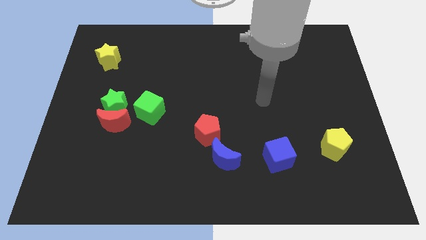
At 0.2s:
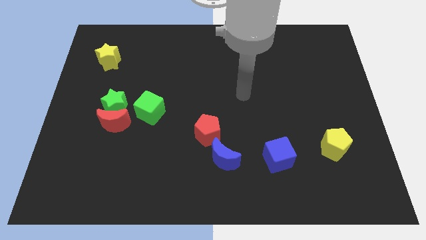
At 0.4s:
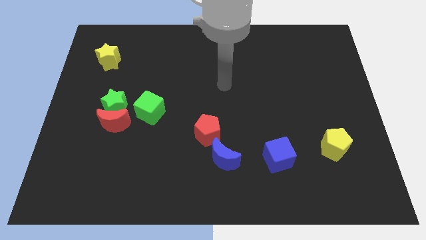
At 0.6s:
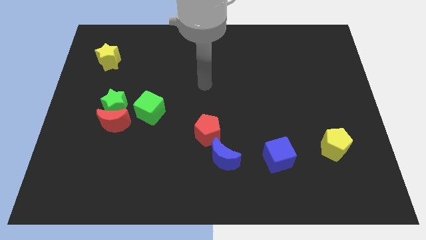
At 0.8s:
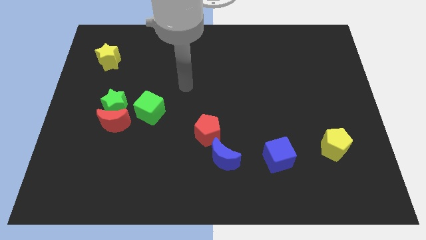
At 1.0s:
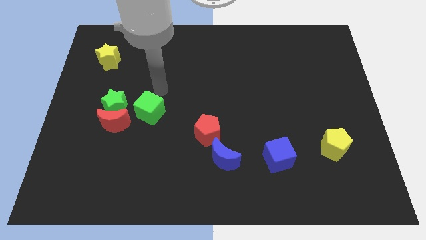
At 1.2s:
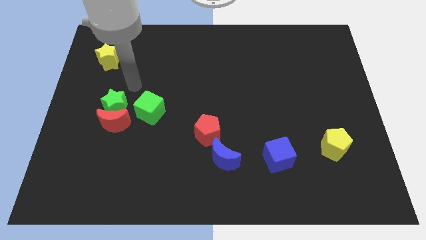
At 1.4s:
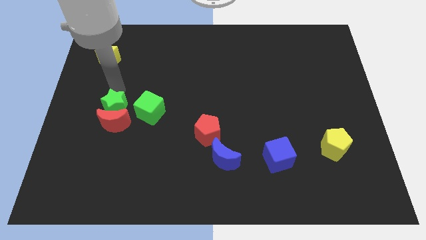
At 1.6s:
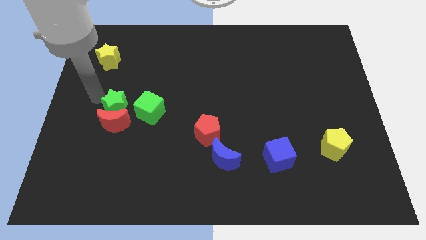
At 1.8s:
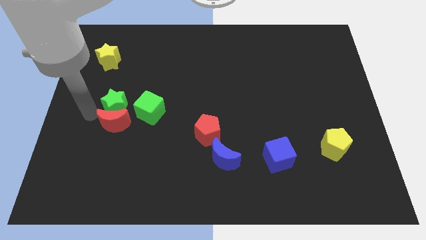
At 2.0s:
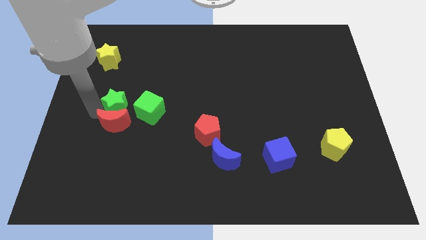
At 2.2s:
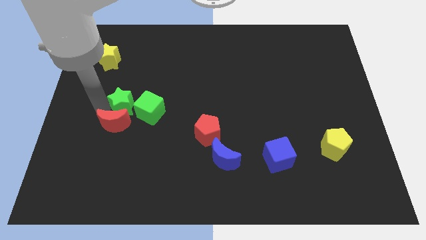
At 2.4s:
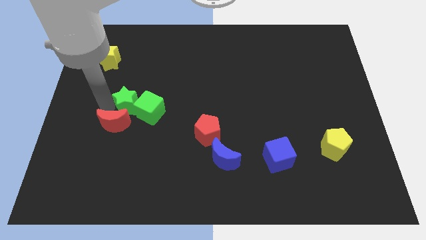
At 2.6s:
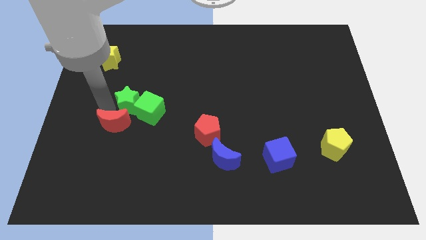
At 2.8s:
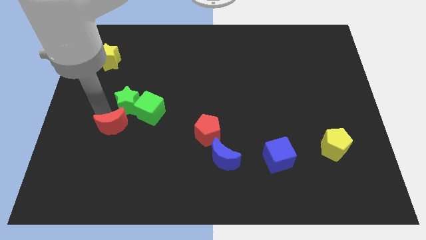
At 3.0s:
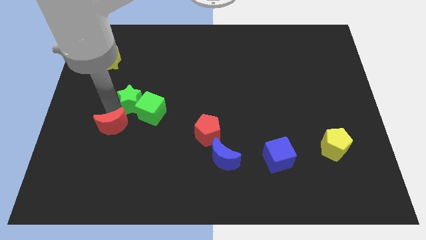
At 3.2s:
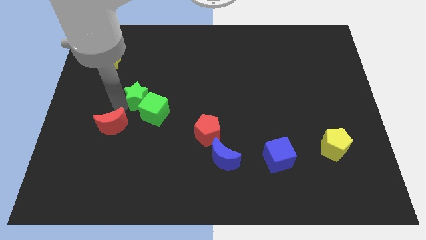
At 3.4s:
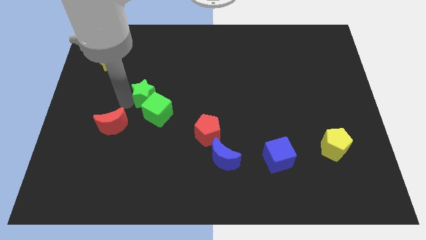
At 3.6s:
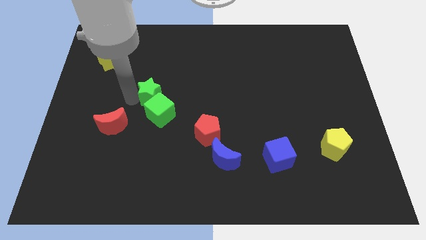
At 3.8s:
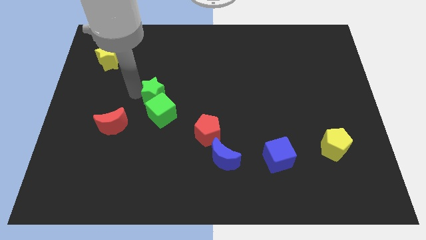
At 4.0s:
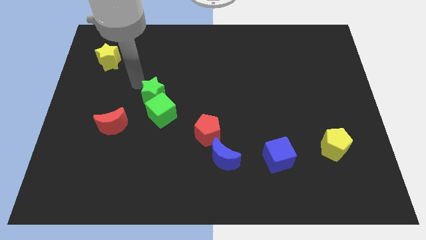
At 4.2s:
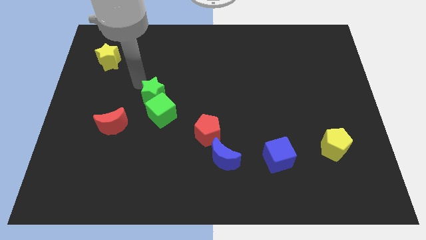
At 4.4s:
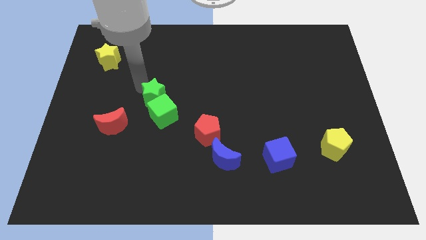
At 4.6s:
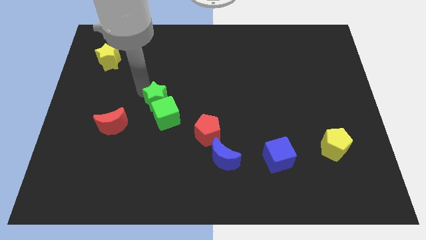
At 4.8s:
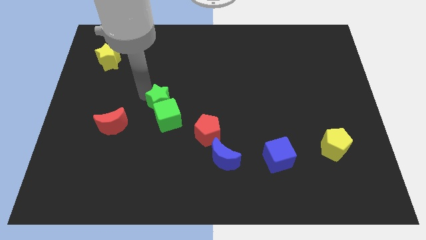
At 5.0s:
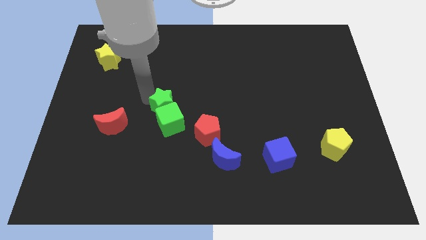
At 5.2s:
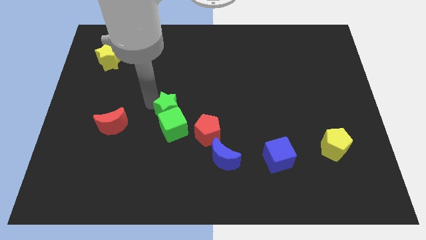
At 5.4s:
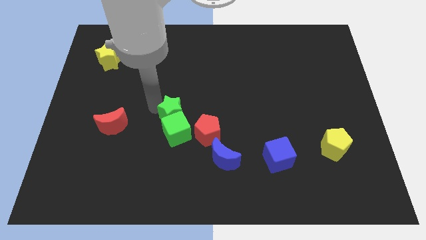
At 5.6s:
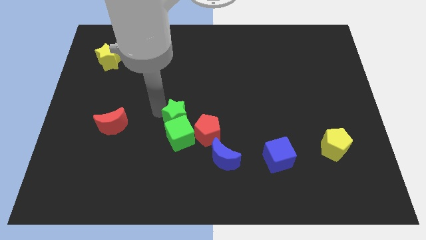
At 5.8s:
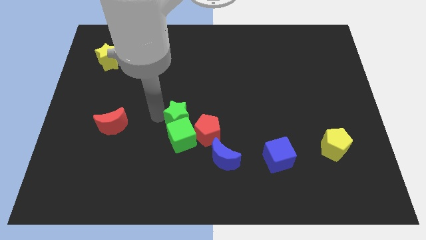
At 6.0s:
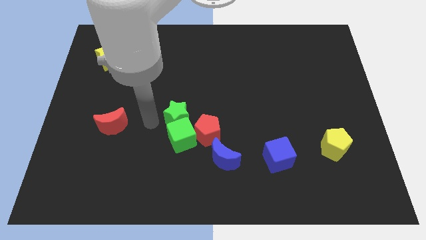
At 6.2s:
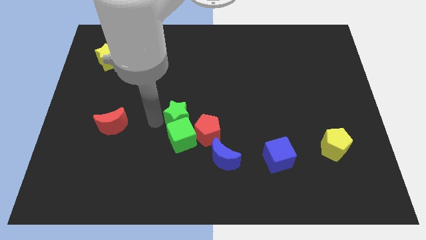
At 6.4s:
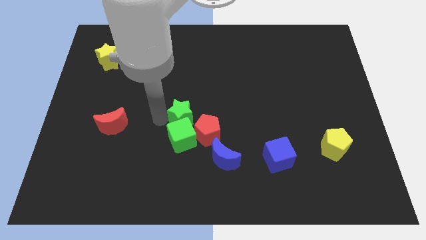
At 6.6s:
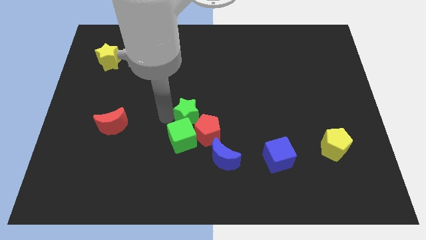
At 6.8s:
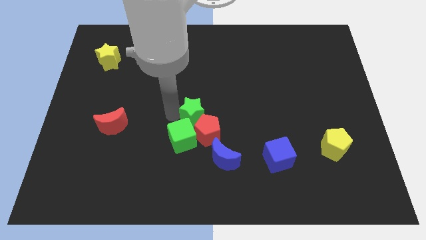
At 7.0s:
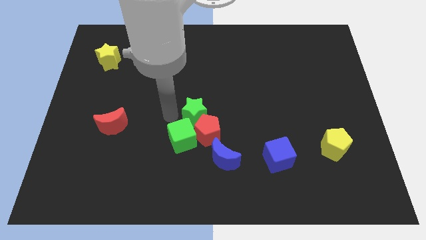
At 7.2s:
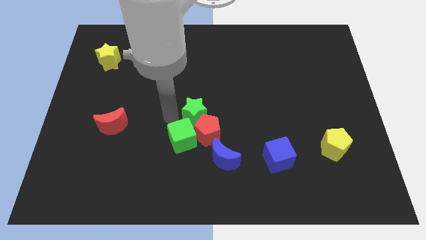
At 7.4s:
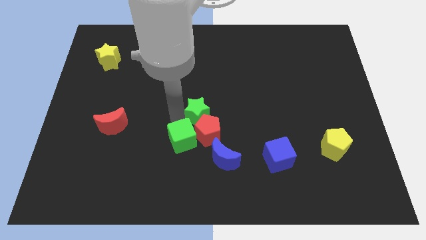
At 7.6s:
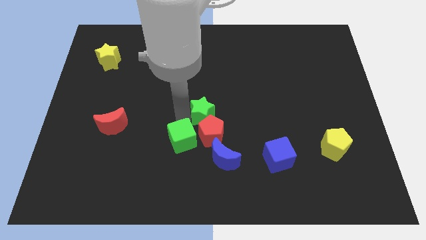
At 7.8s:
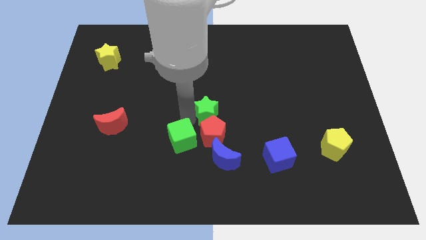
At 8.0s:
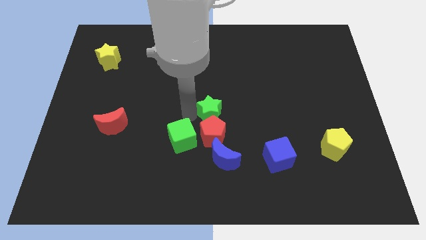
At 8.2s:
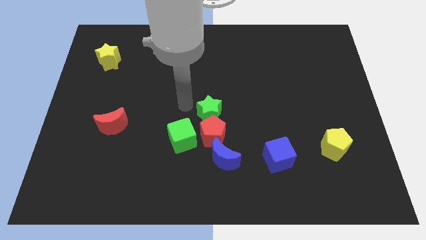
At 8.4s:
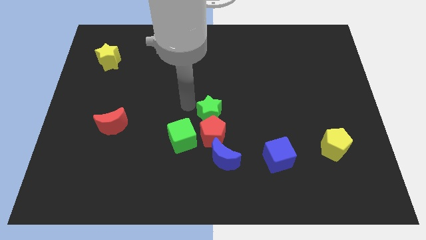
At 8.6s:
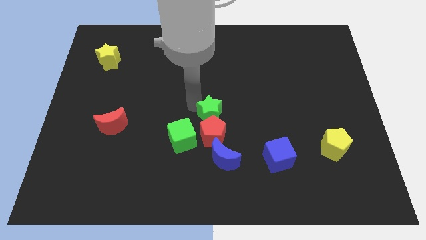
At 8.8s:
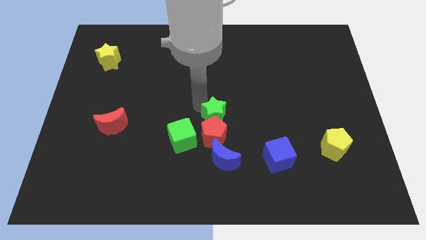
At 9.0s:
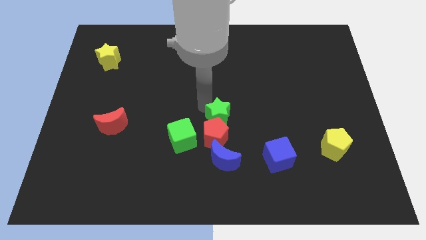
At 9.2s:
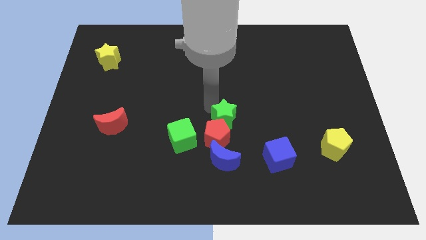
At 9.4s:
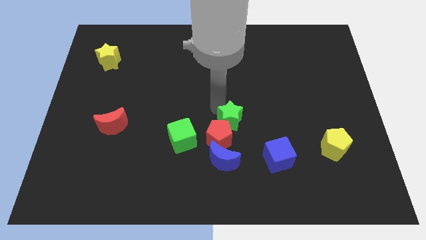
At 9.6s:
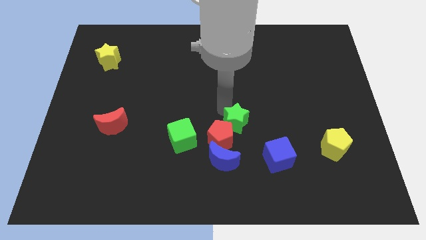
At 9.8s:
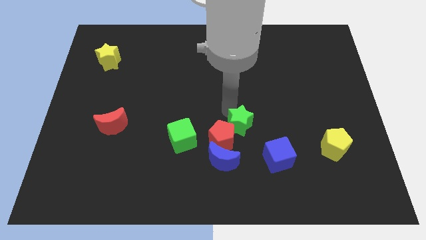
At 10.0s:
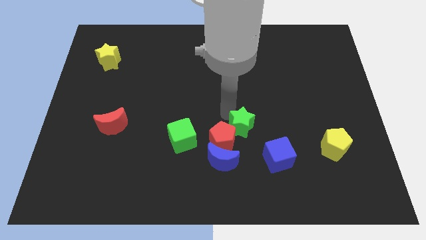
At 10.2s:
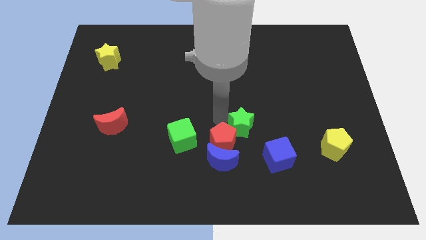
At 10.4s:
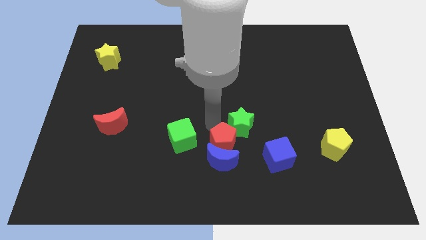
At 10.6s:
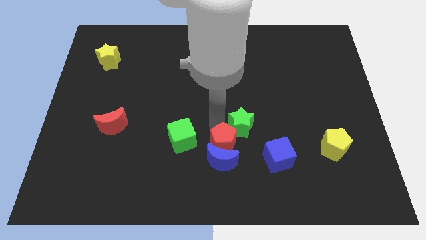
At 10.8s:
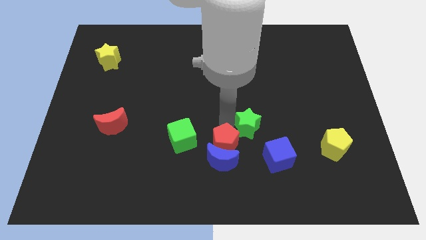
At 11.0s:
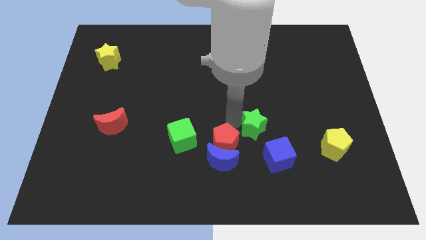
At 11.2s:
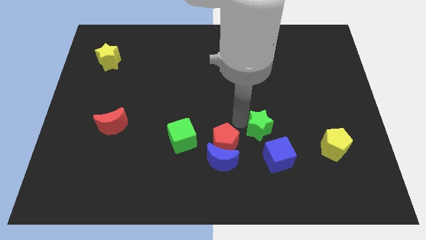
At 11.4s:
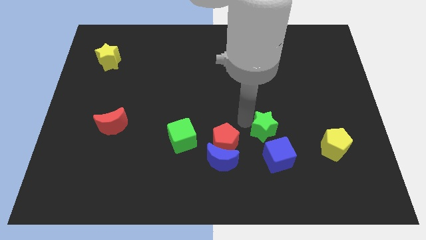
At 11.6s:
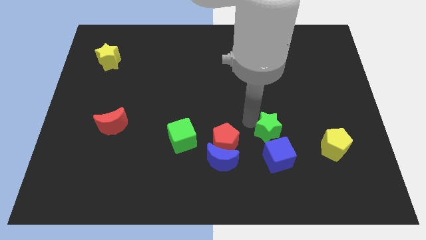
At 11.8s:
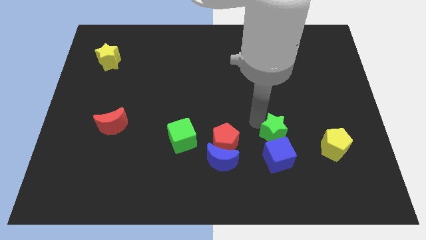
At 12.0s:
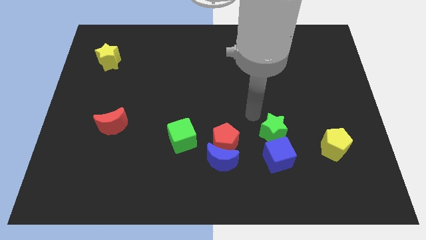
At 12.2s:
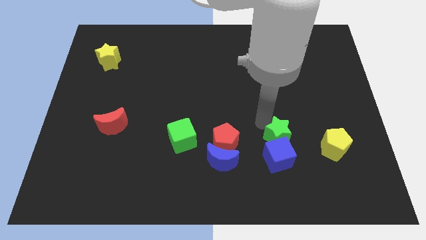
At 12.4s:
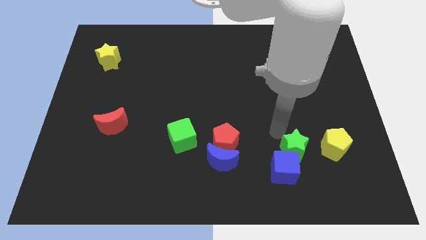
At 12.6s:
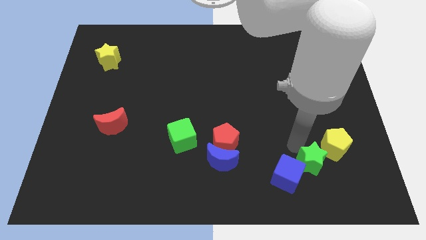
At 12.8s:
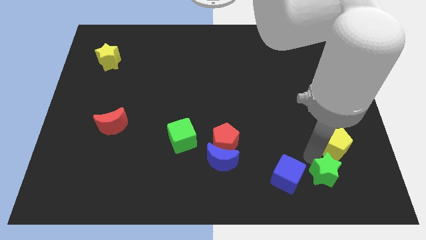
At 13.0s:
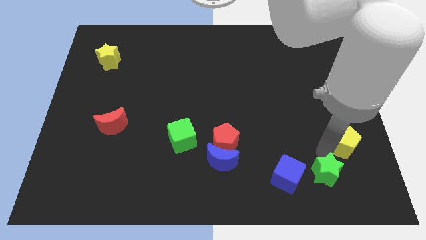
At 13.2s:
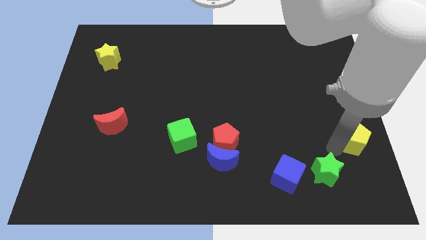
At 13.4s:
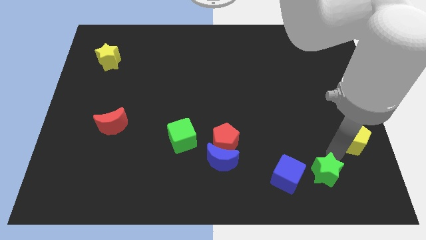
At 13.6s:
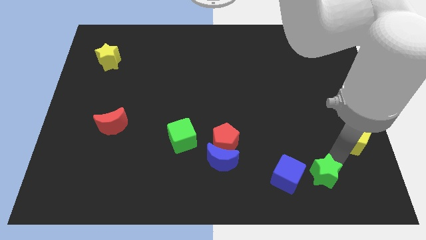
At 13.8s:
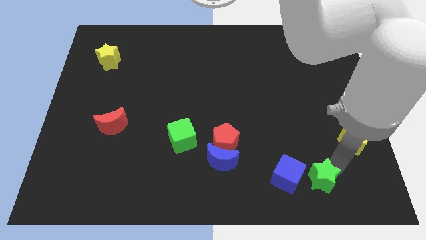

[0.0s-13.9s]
put the green star diagonally down and to the right of the blue cube
